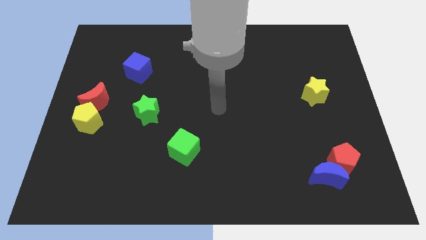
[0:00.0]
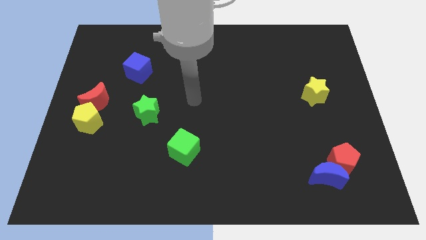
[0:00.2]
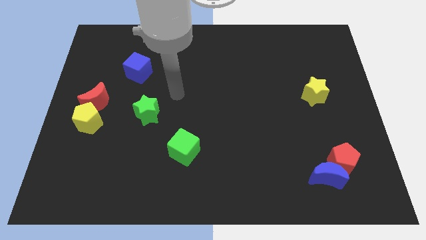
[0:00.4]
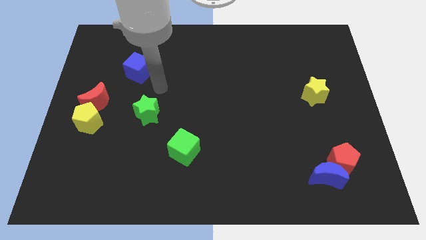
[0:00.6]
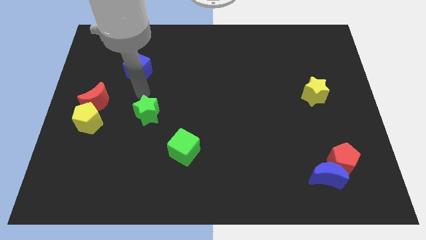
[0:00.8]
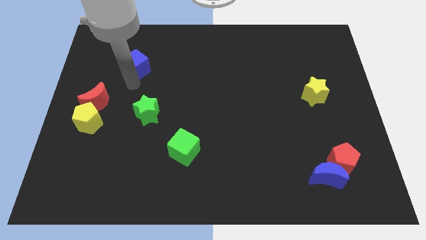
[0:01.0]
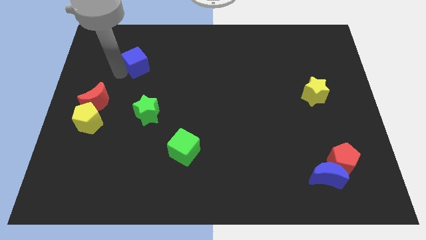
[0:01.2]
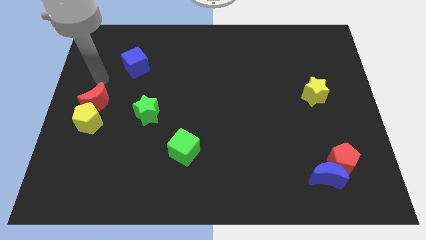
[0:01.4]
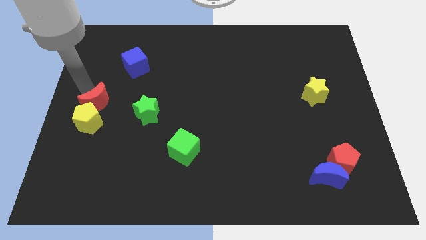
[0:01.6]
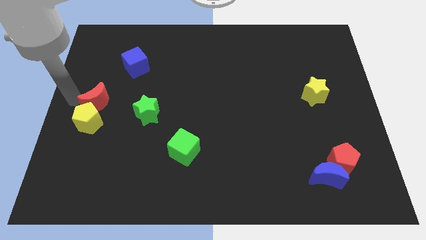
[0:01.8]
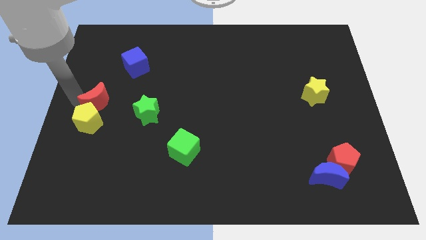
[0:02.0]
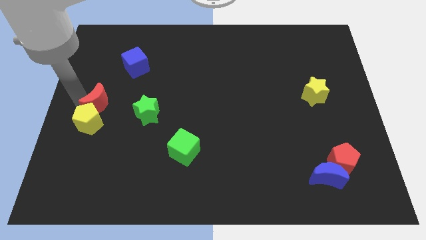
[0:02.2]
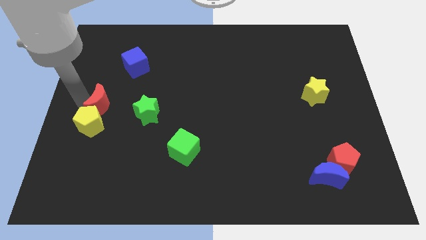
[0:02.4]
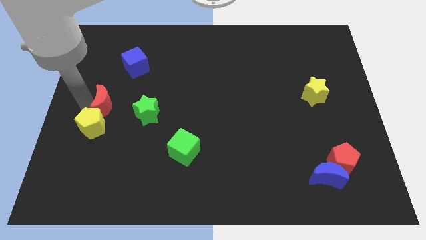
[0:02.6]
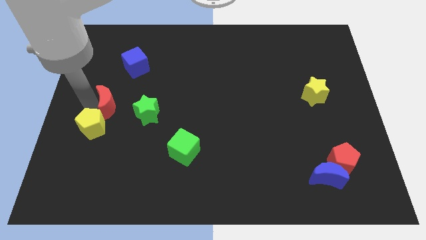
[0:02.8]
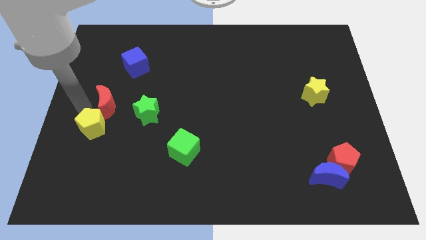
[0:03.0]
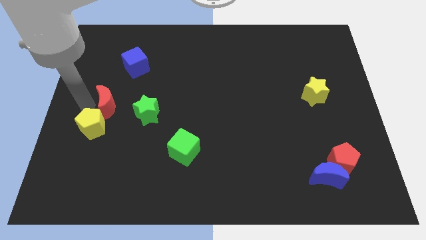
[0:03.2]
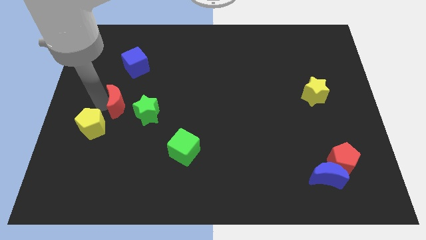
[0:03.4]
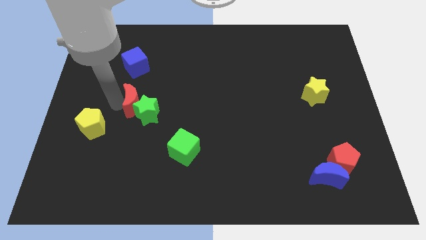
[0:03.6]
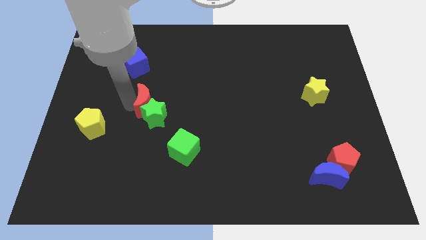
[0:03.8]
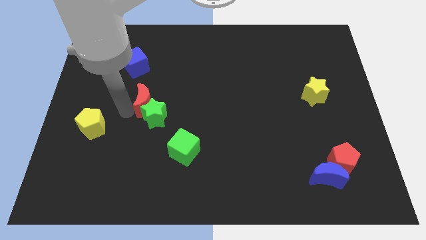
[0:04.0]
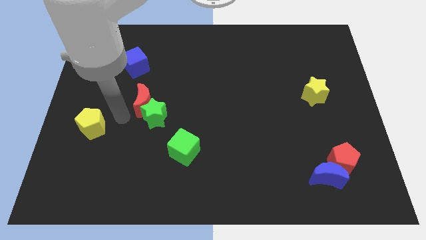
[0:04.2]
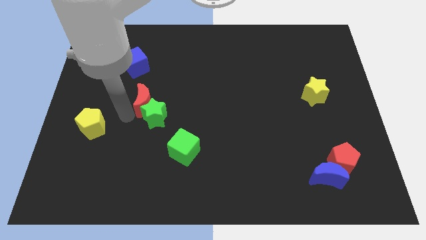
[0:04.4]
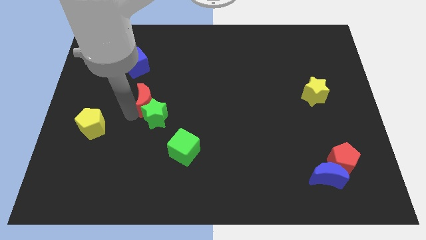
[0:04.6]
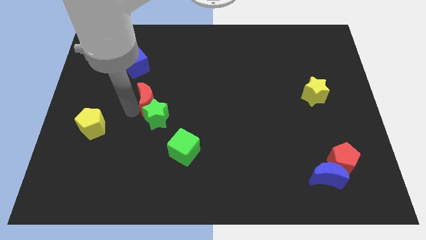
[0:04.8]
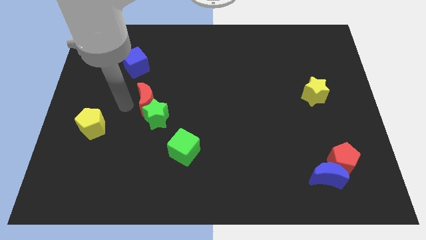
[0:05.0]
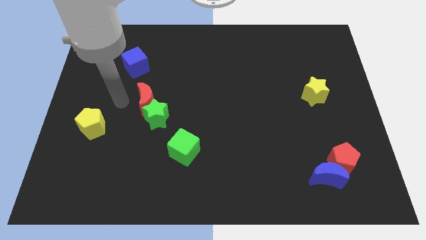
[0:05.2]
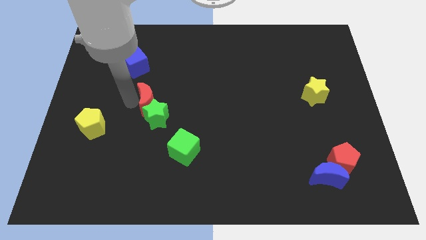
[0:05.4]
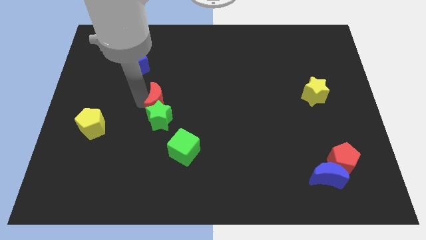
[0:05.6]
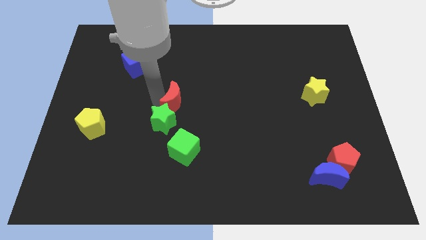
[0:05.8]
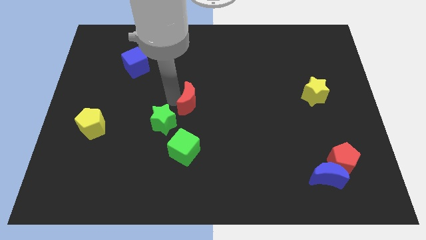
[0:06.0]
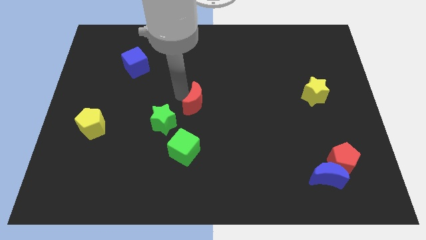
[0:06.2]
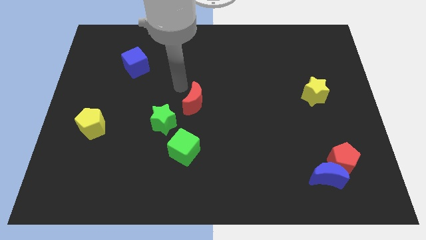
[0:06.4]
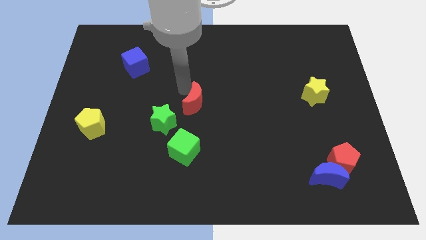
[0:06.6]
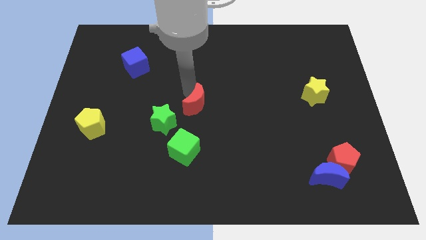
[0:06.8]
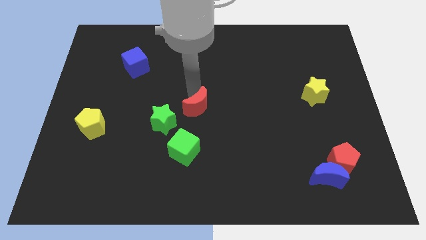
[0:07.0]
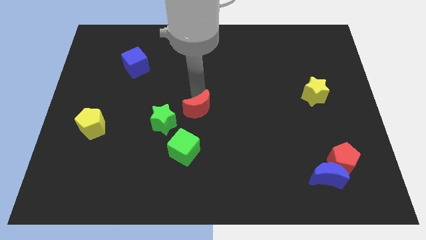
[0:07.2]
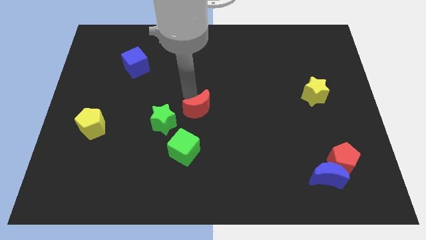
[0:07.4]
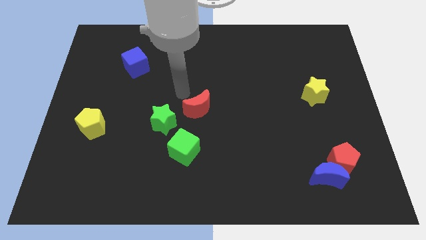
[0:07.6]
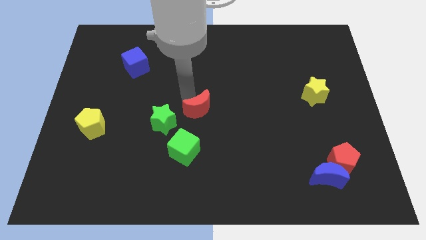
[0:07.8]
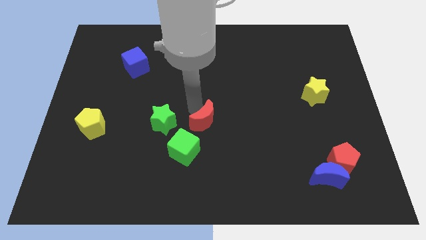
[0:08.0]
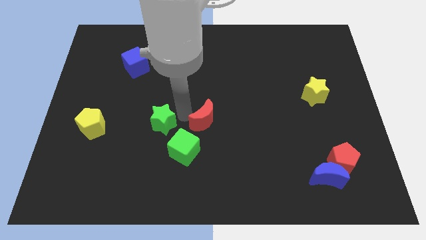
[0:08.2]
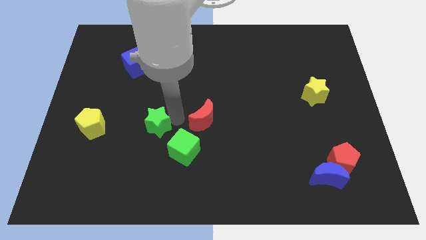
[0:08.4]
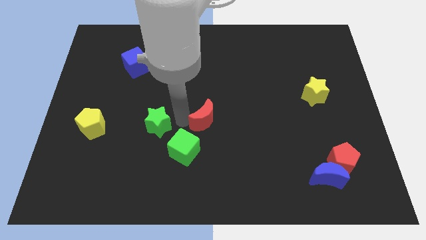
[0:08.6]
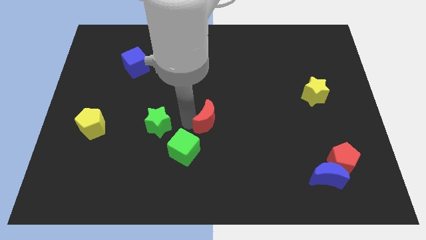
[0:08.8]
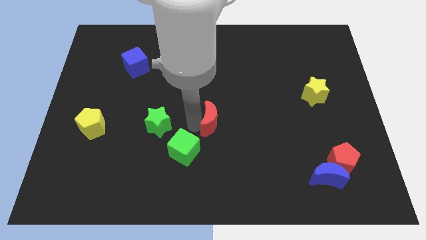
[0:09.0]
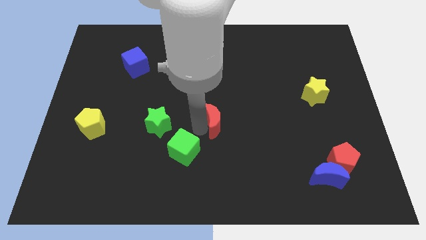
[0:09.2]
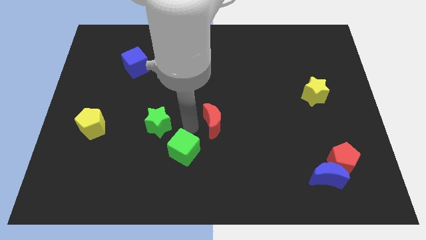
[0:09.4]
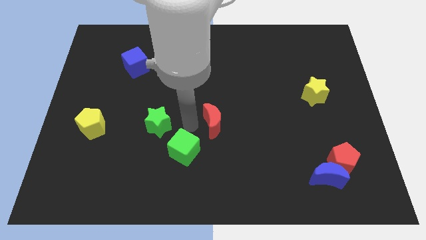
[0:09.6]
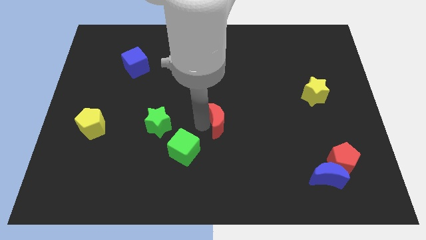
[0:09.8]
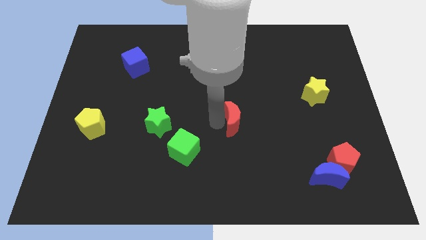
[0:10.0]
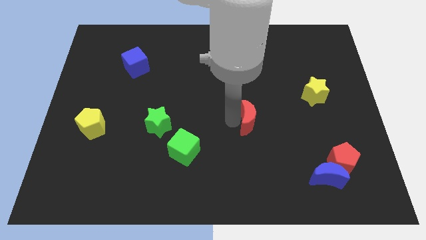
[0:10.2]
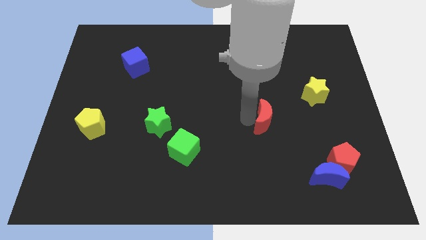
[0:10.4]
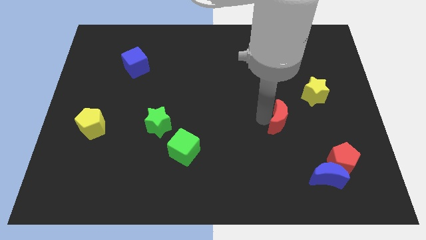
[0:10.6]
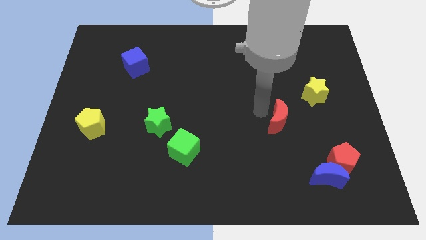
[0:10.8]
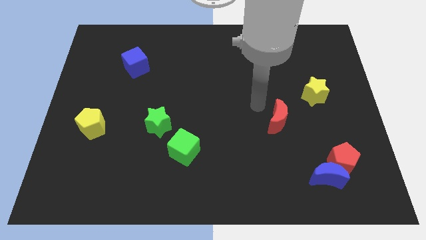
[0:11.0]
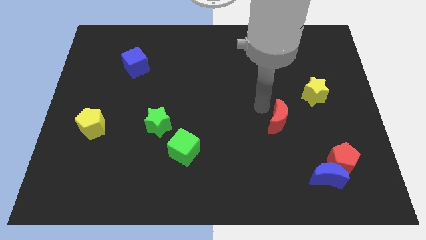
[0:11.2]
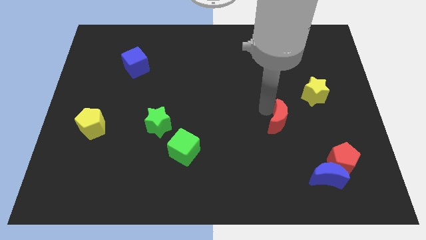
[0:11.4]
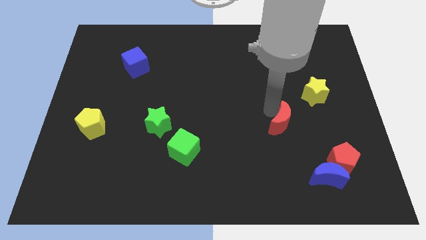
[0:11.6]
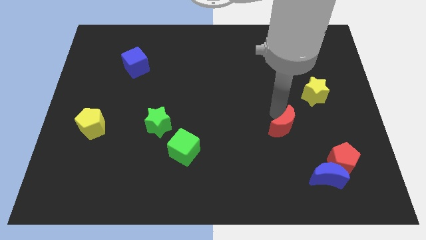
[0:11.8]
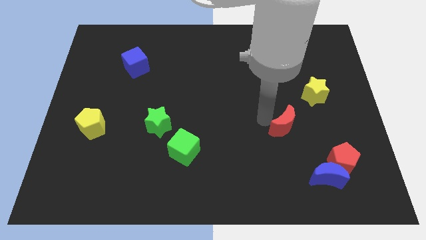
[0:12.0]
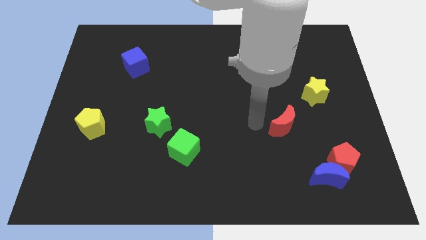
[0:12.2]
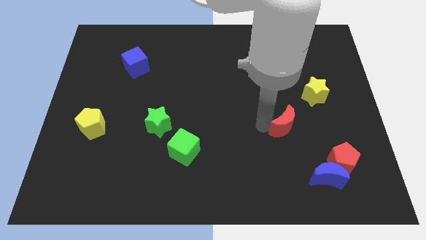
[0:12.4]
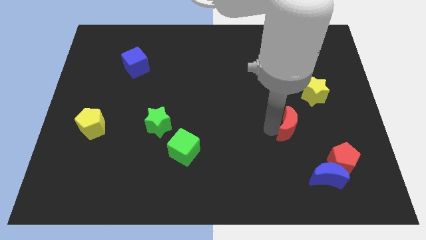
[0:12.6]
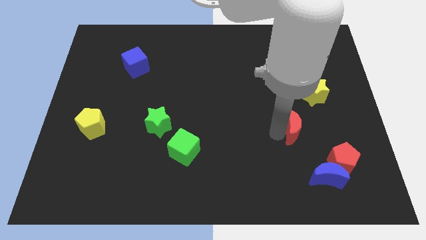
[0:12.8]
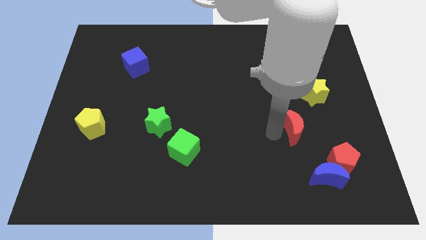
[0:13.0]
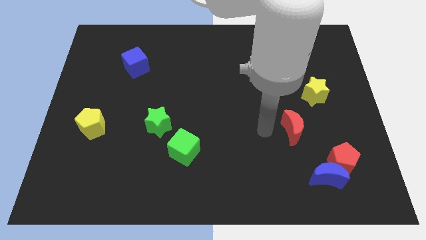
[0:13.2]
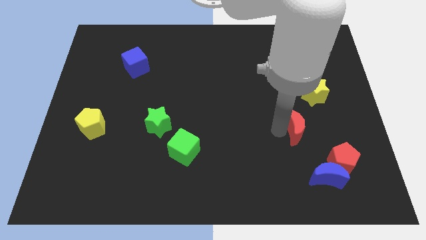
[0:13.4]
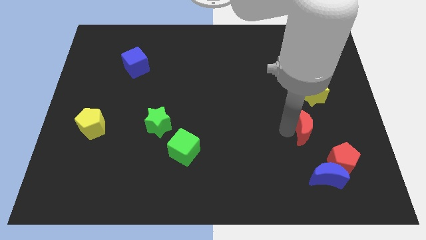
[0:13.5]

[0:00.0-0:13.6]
move the red moon below the yellow star
